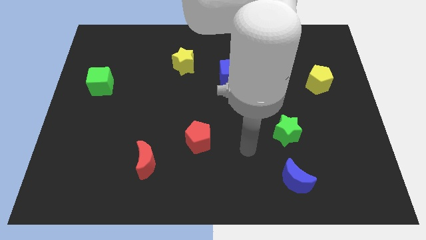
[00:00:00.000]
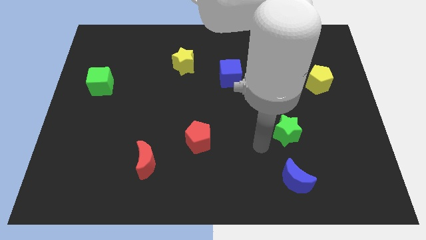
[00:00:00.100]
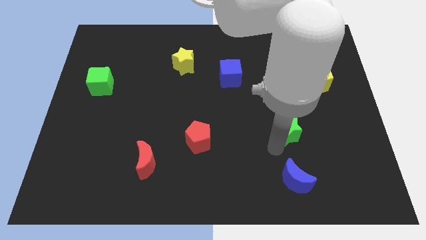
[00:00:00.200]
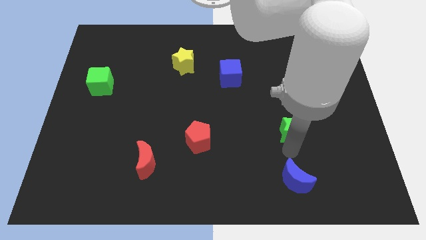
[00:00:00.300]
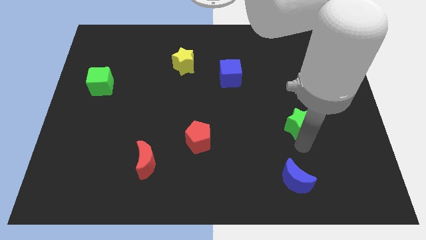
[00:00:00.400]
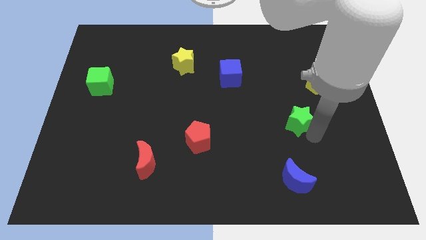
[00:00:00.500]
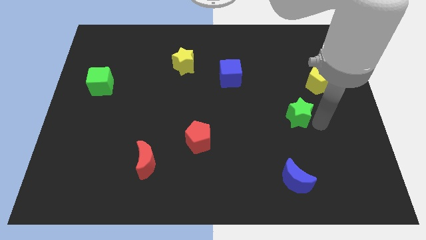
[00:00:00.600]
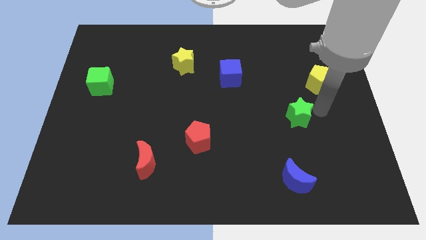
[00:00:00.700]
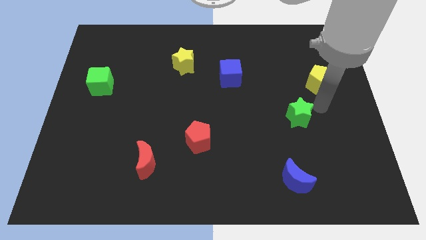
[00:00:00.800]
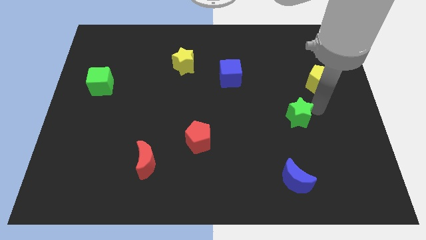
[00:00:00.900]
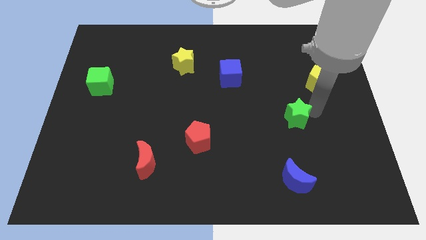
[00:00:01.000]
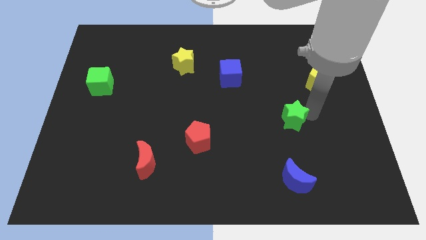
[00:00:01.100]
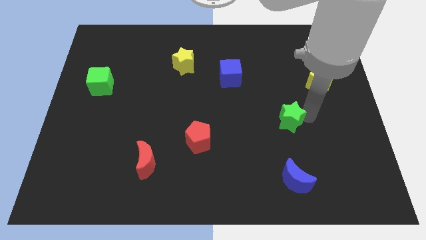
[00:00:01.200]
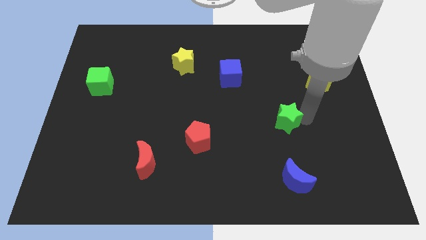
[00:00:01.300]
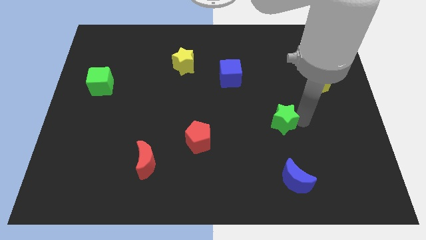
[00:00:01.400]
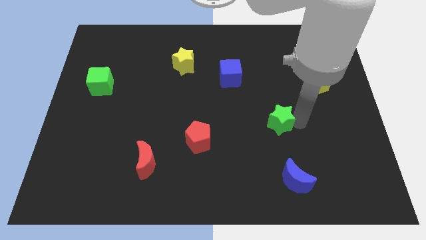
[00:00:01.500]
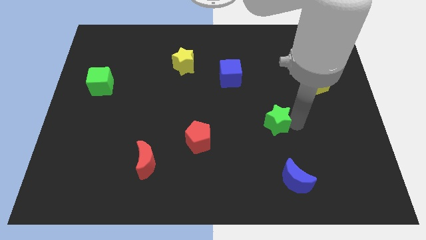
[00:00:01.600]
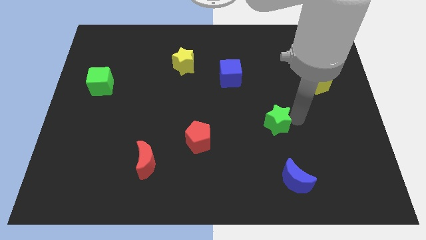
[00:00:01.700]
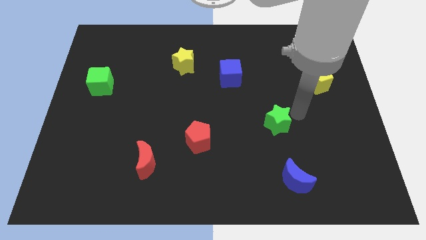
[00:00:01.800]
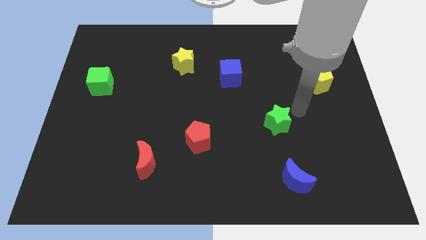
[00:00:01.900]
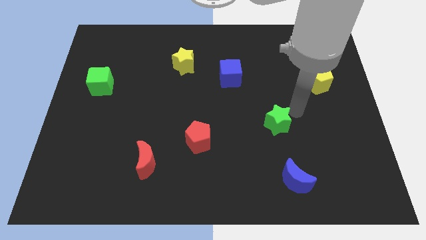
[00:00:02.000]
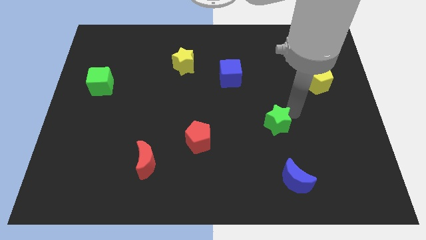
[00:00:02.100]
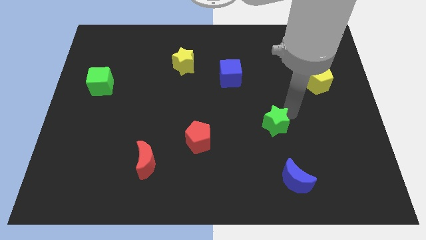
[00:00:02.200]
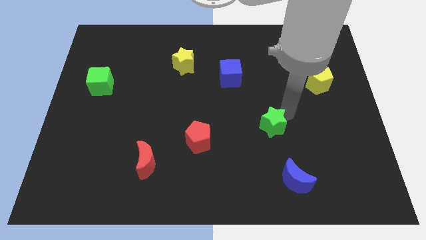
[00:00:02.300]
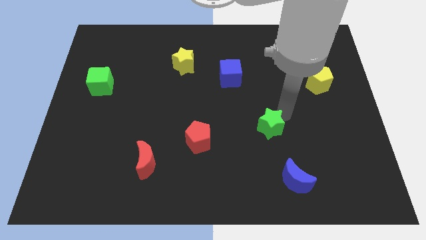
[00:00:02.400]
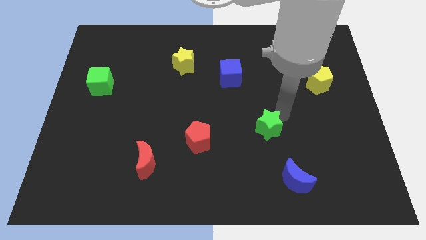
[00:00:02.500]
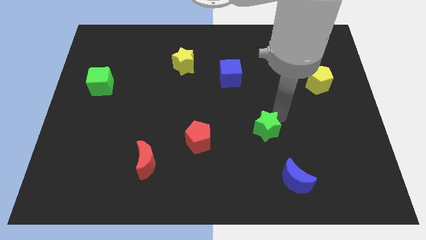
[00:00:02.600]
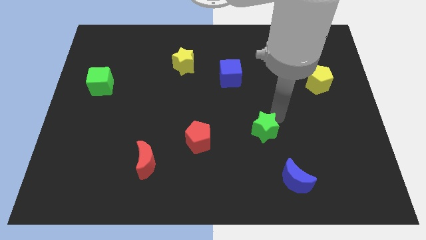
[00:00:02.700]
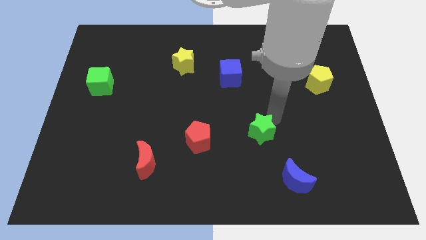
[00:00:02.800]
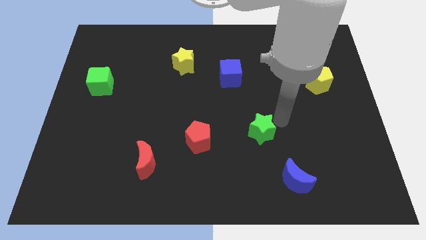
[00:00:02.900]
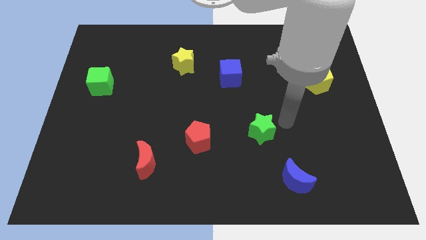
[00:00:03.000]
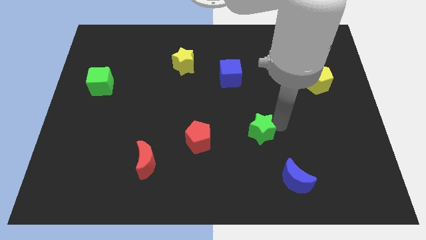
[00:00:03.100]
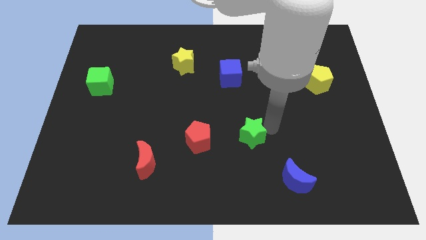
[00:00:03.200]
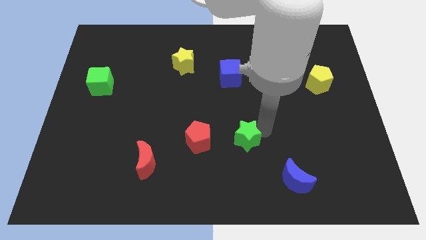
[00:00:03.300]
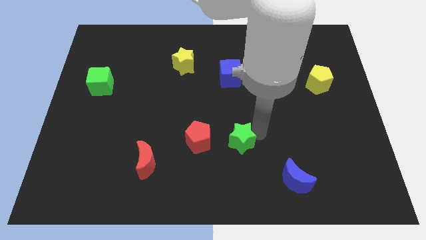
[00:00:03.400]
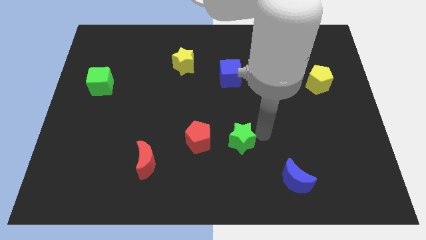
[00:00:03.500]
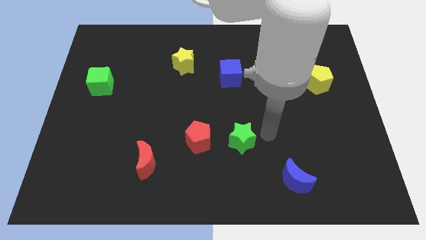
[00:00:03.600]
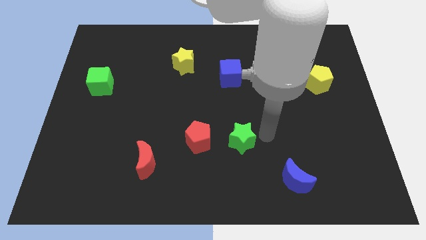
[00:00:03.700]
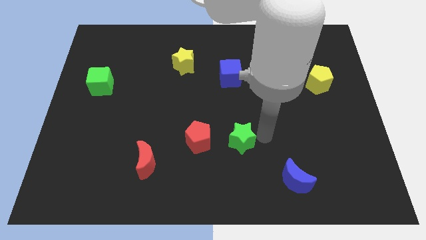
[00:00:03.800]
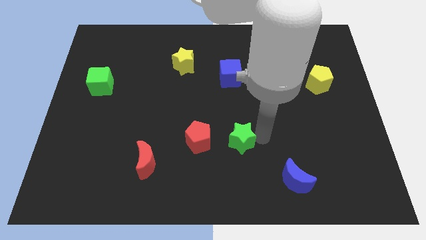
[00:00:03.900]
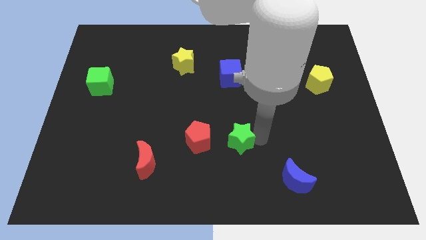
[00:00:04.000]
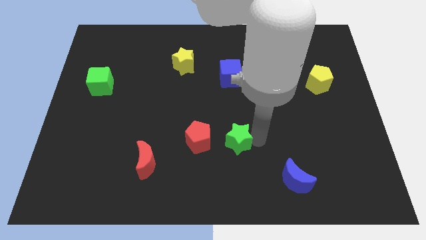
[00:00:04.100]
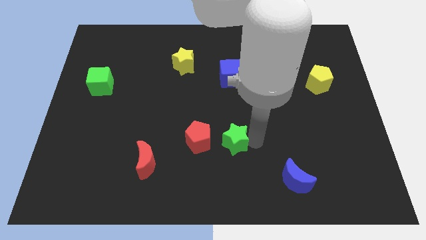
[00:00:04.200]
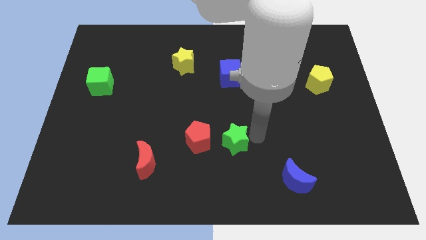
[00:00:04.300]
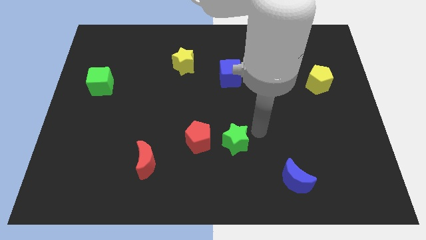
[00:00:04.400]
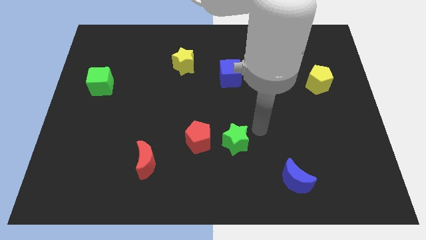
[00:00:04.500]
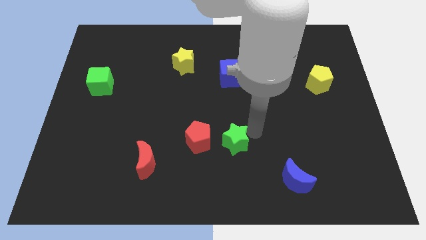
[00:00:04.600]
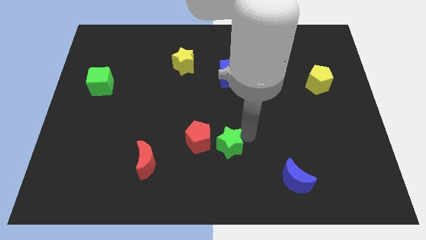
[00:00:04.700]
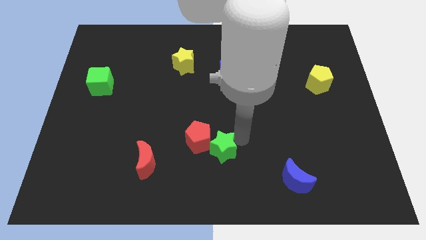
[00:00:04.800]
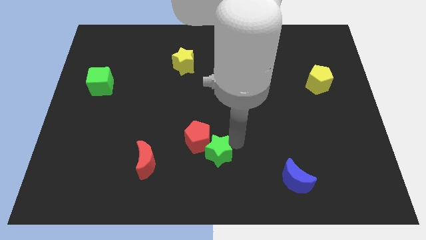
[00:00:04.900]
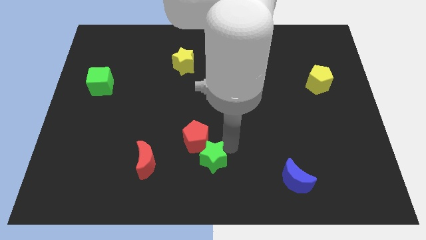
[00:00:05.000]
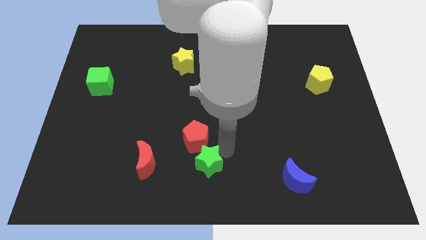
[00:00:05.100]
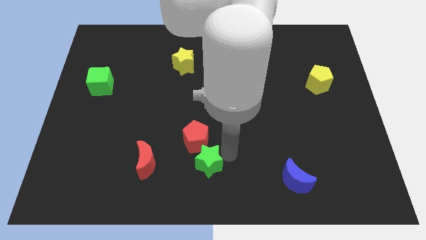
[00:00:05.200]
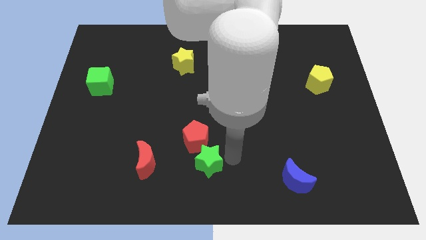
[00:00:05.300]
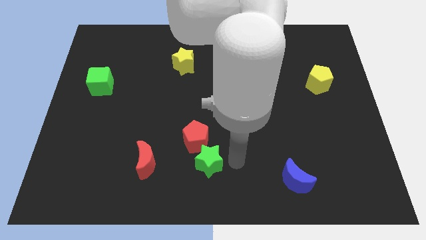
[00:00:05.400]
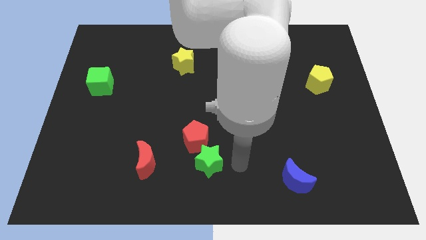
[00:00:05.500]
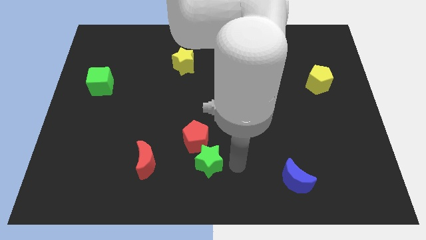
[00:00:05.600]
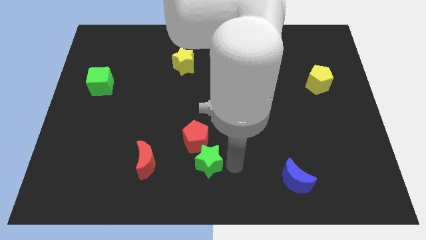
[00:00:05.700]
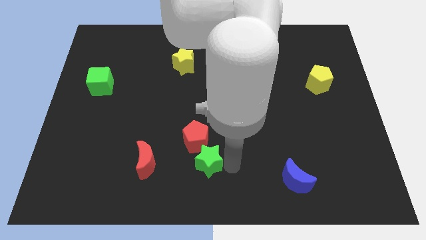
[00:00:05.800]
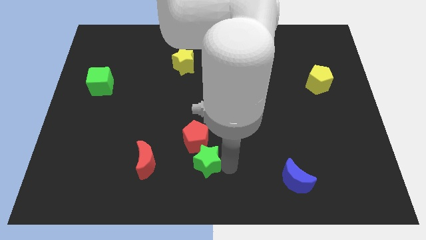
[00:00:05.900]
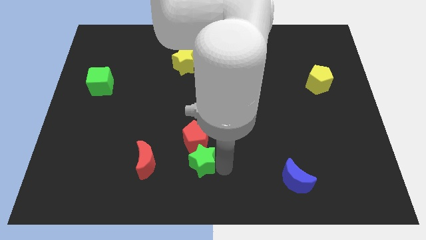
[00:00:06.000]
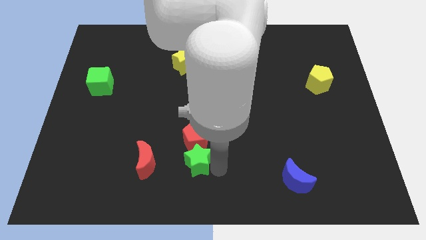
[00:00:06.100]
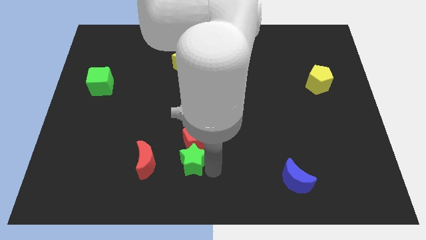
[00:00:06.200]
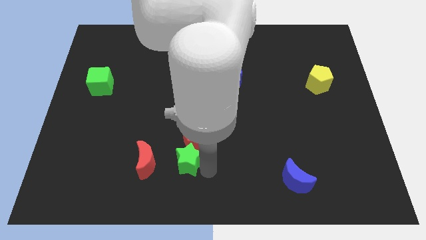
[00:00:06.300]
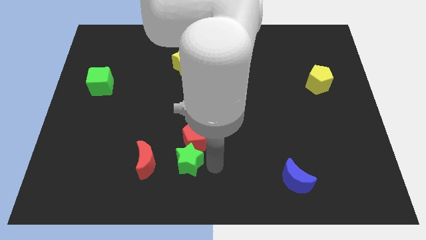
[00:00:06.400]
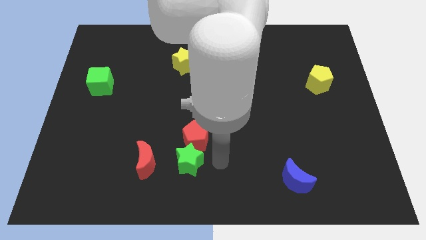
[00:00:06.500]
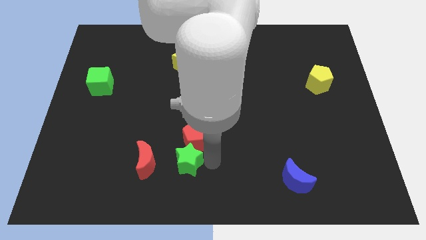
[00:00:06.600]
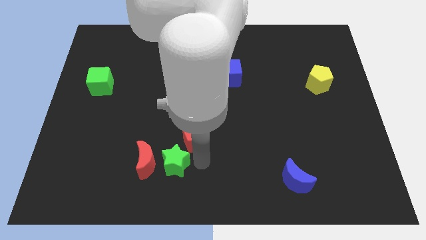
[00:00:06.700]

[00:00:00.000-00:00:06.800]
move the green star to the red moon
